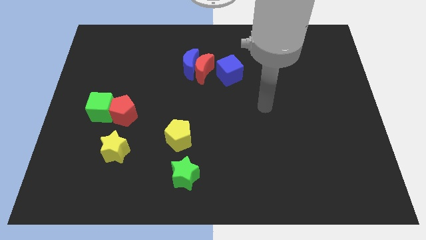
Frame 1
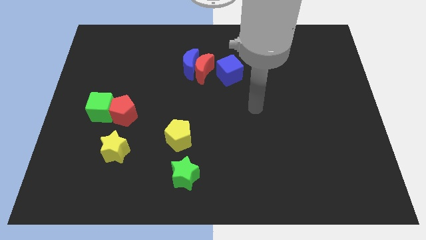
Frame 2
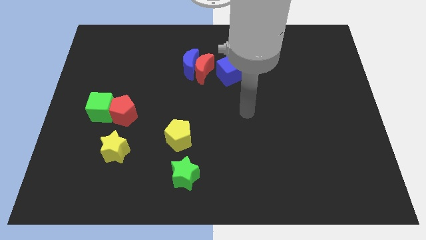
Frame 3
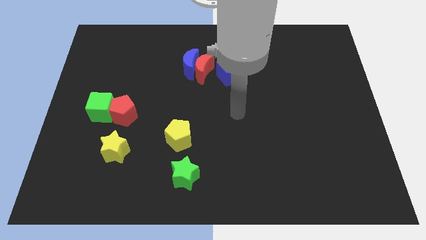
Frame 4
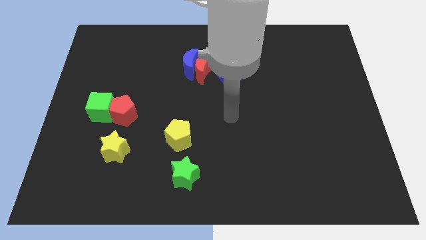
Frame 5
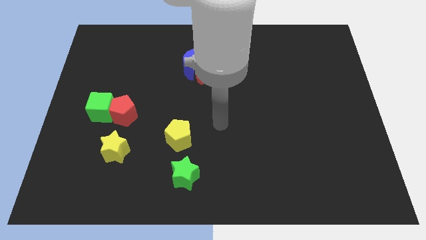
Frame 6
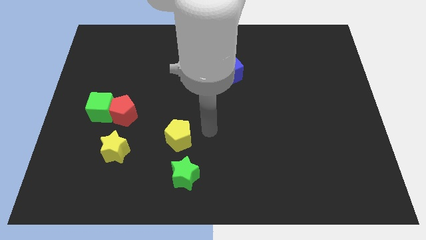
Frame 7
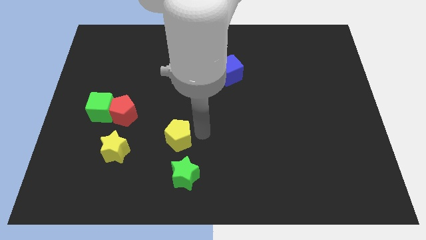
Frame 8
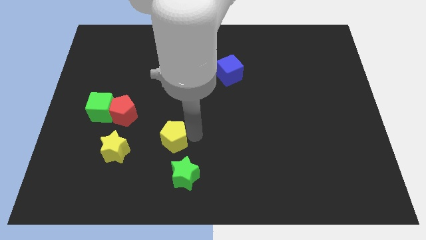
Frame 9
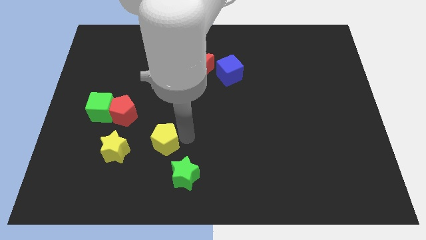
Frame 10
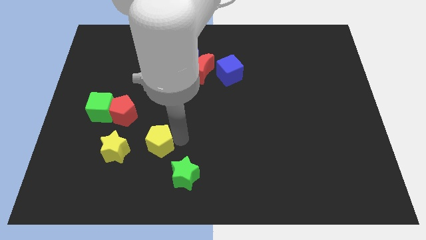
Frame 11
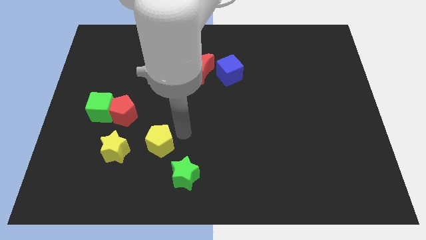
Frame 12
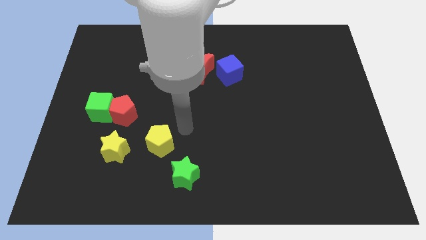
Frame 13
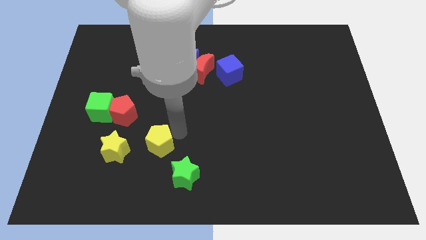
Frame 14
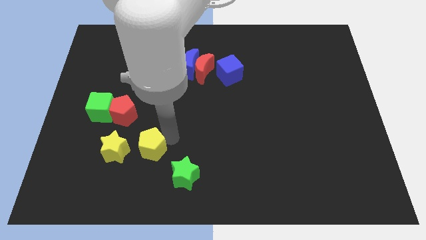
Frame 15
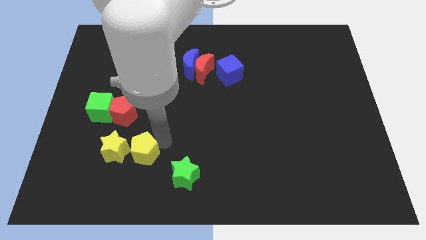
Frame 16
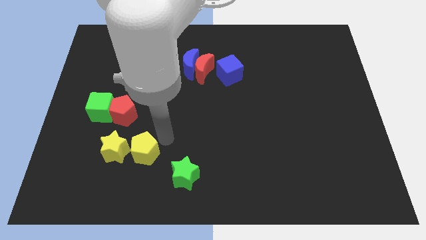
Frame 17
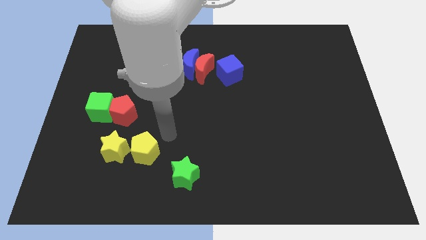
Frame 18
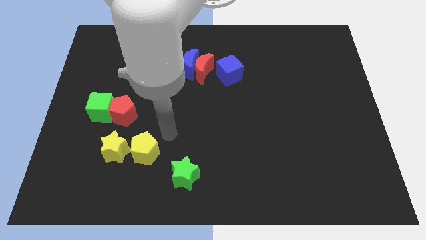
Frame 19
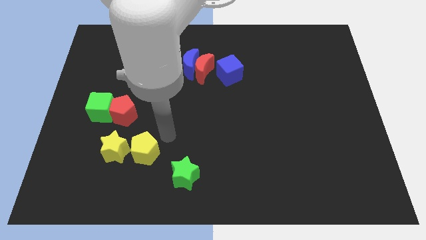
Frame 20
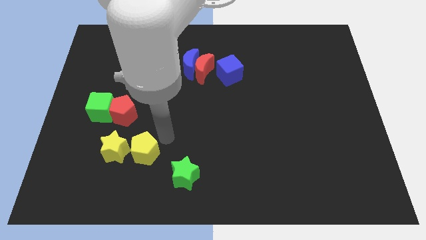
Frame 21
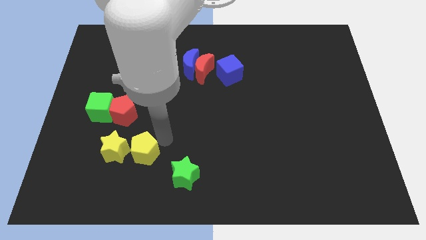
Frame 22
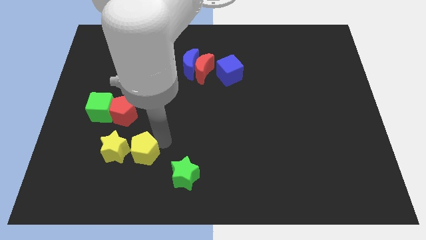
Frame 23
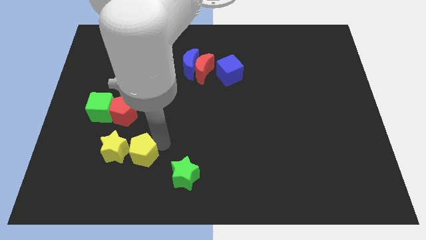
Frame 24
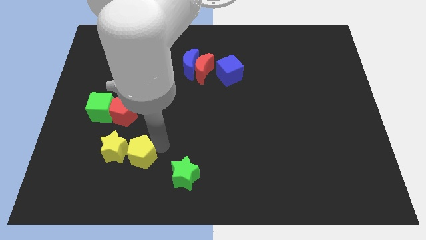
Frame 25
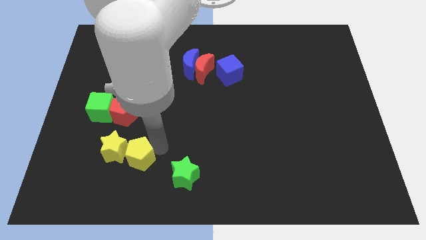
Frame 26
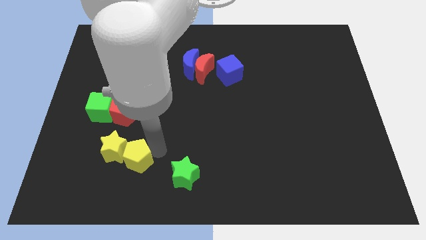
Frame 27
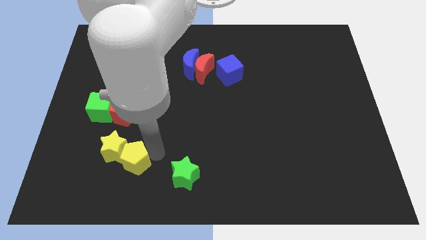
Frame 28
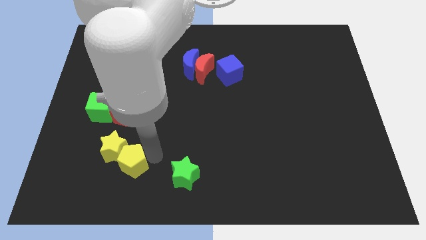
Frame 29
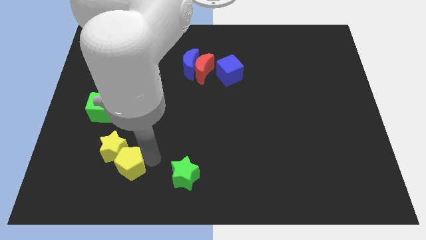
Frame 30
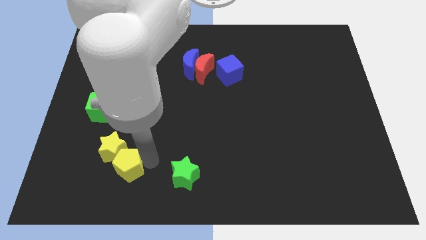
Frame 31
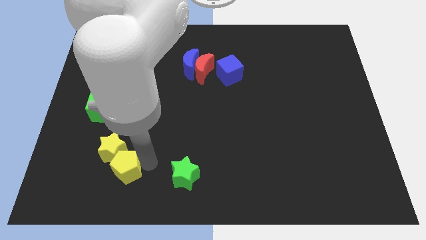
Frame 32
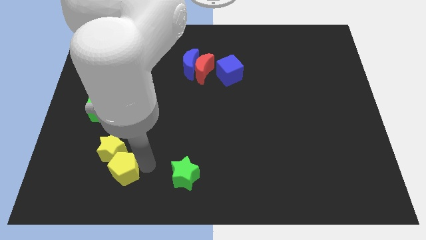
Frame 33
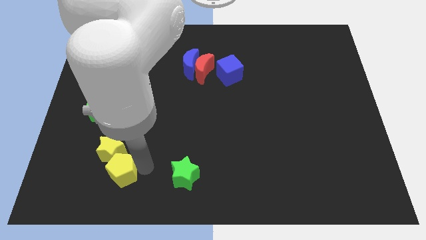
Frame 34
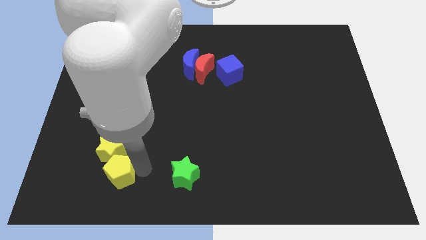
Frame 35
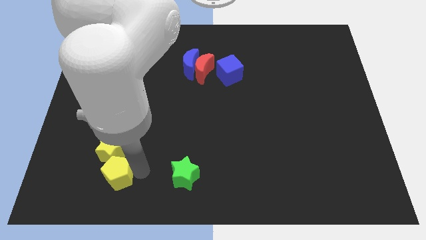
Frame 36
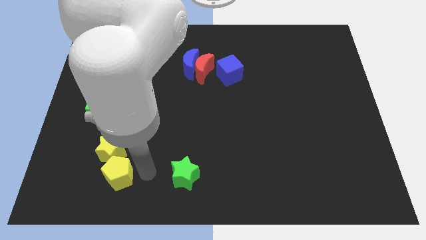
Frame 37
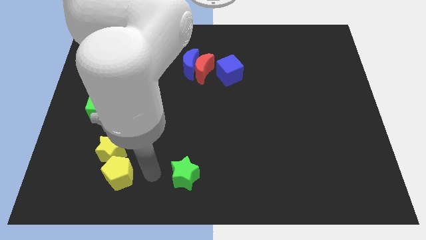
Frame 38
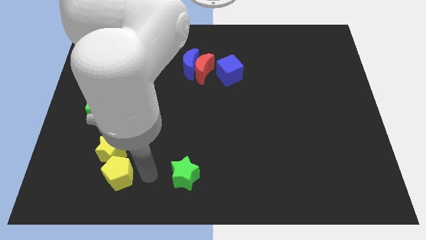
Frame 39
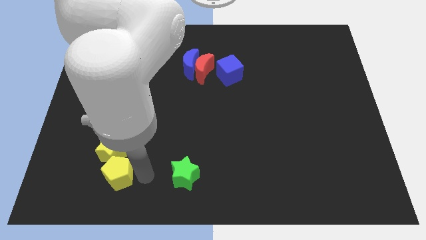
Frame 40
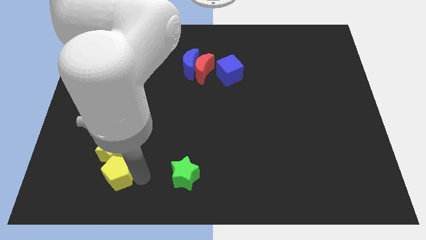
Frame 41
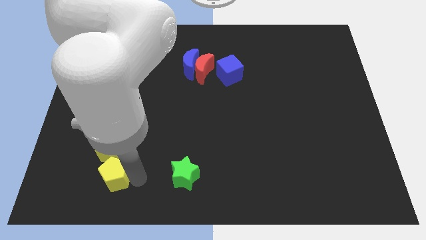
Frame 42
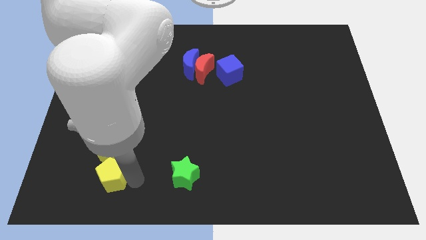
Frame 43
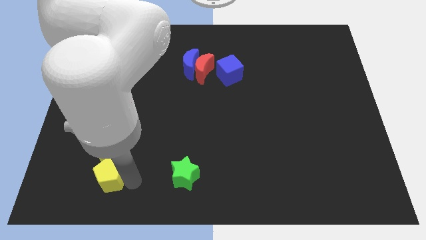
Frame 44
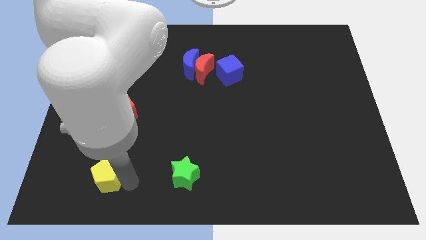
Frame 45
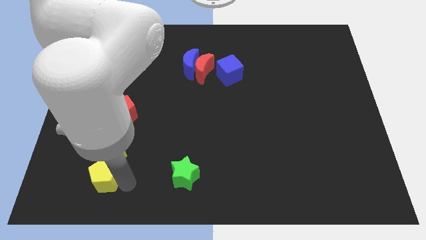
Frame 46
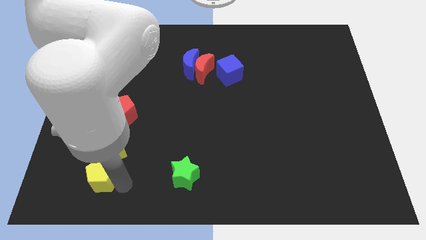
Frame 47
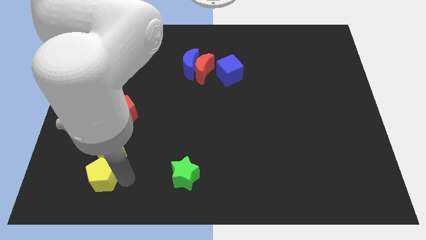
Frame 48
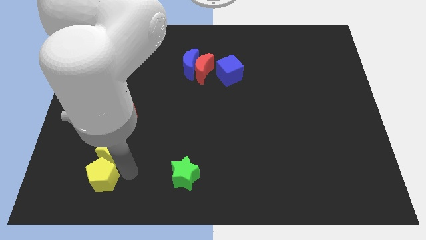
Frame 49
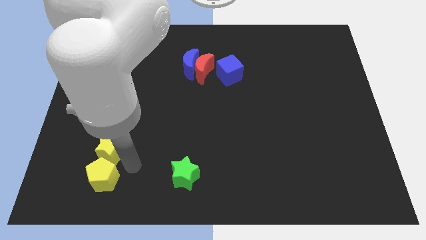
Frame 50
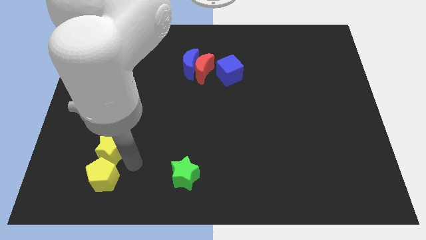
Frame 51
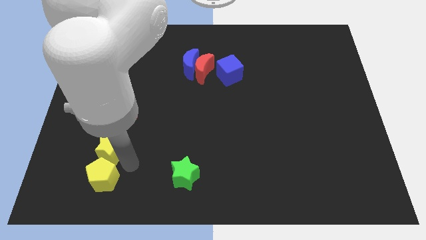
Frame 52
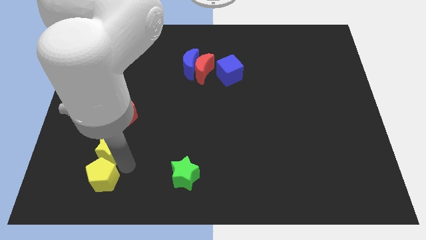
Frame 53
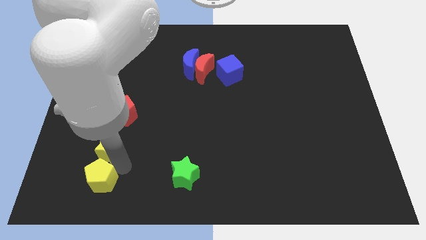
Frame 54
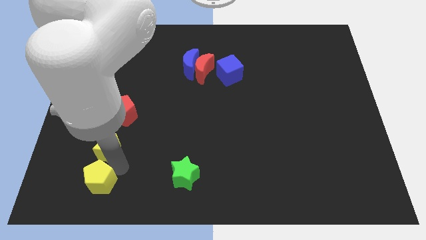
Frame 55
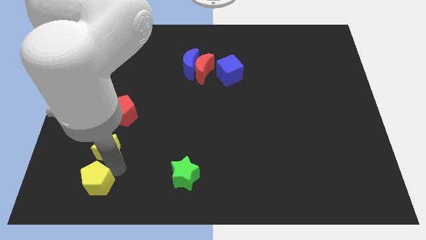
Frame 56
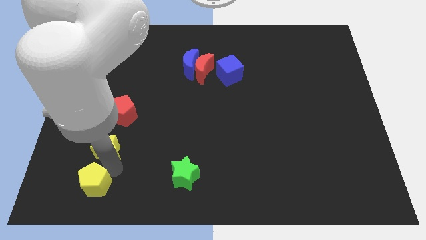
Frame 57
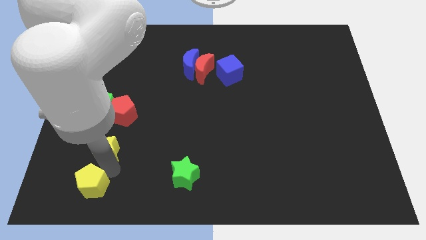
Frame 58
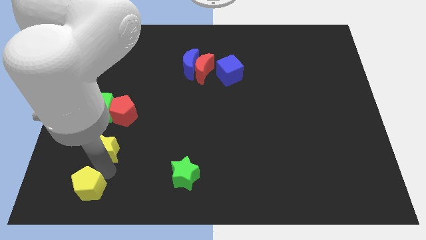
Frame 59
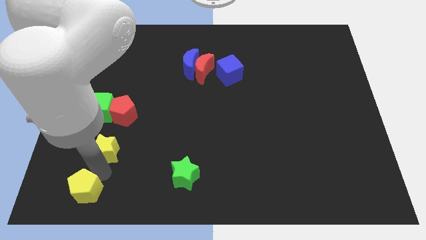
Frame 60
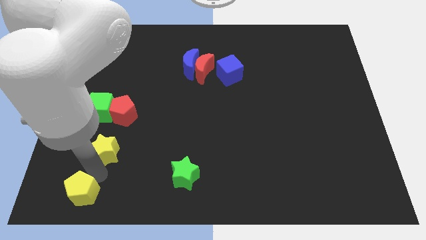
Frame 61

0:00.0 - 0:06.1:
push the yellow pentagon to the bottom left corner

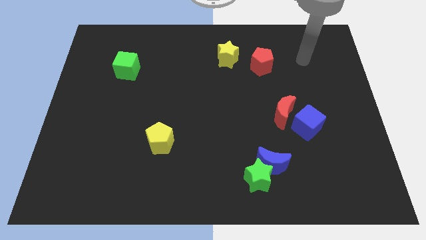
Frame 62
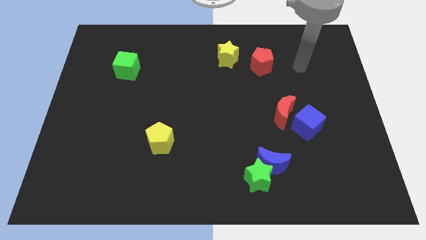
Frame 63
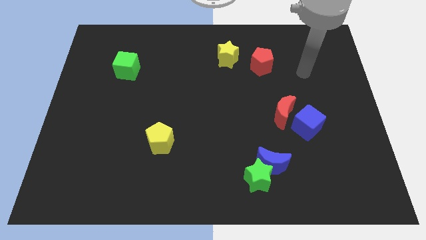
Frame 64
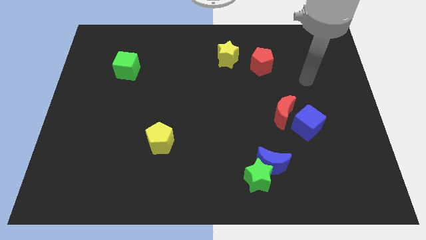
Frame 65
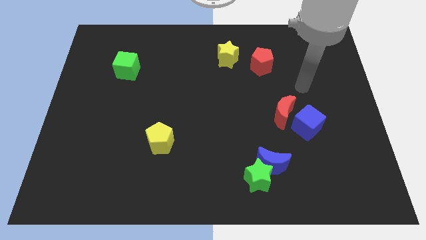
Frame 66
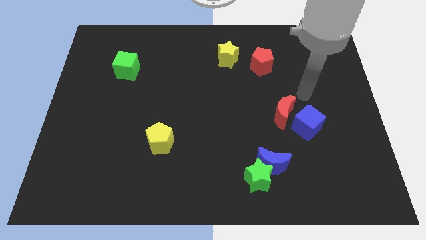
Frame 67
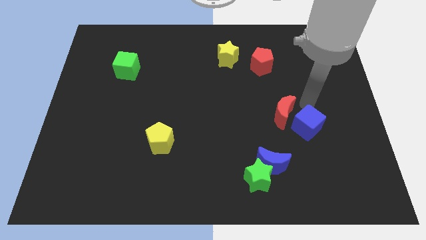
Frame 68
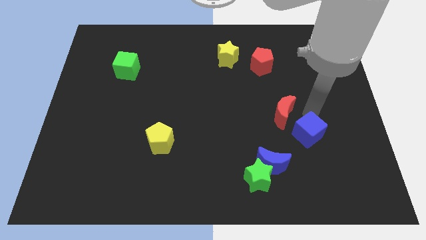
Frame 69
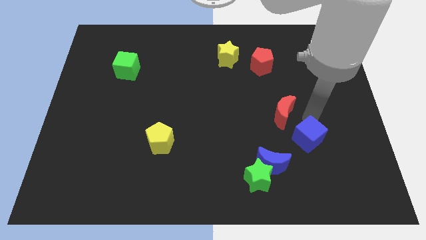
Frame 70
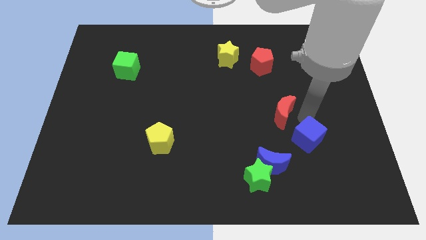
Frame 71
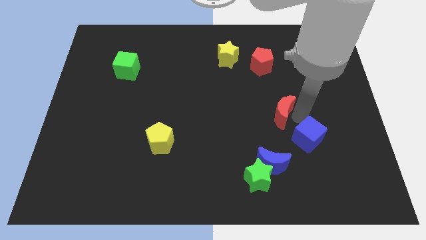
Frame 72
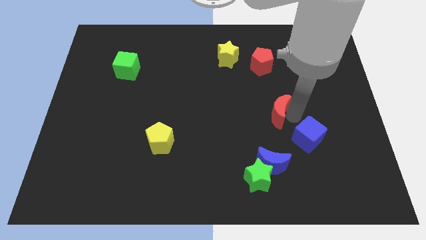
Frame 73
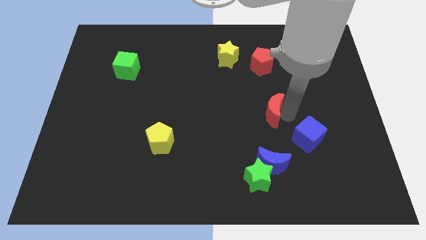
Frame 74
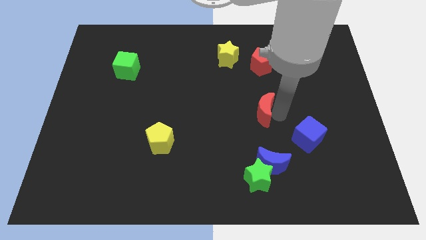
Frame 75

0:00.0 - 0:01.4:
put the red moon to the middle
